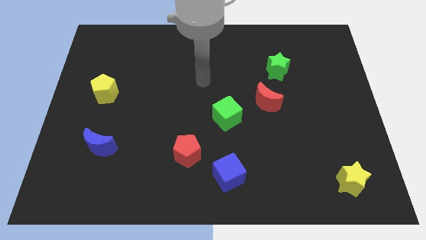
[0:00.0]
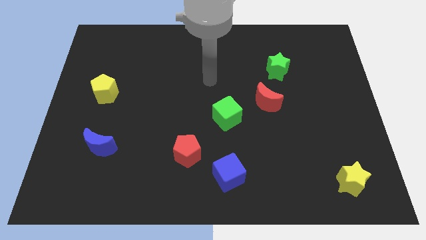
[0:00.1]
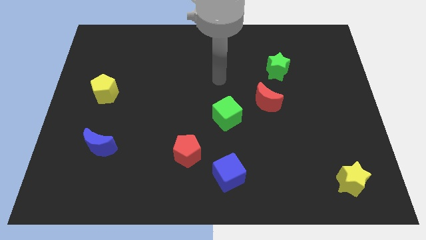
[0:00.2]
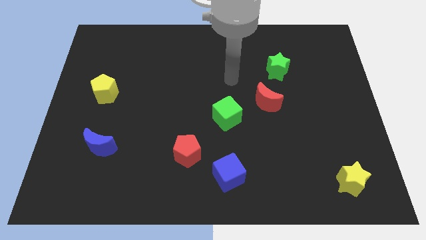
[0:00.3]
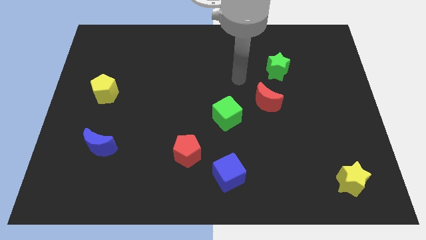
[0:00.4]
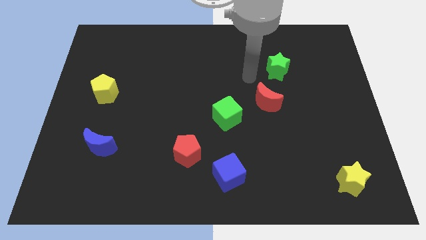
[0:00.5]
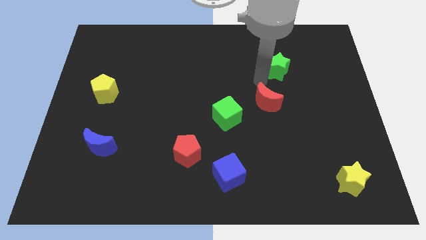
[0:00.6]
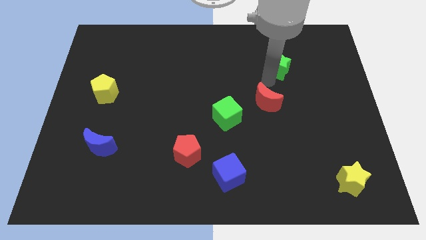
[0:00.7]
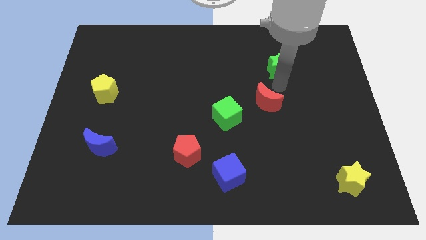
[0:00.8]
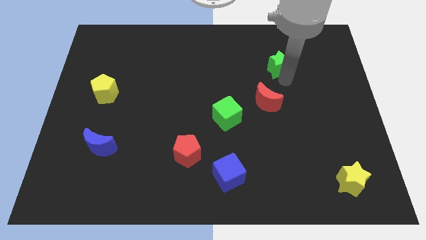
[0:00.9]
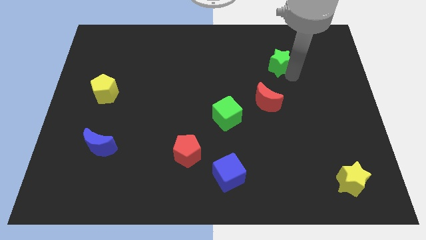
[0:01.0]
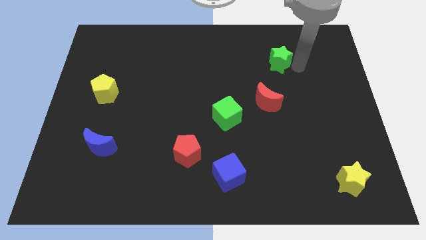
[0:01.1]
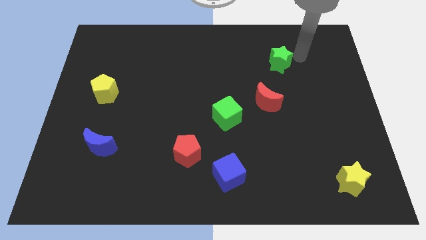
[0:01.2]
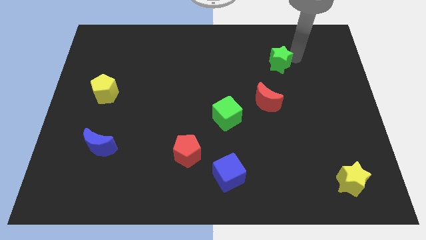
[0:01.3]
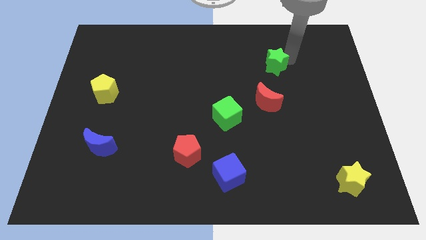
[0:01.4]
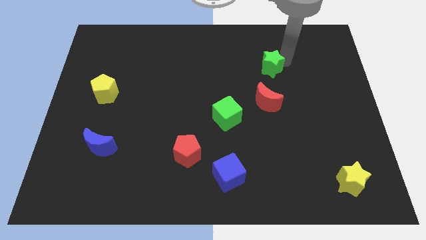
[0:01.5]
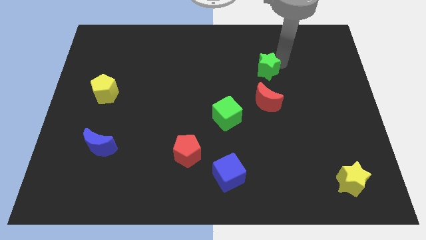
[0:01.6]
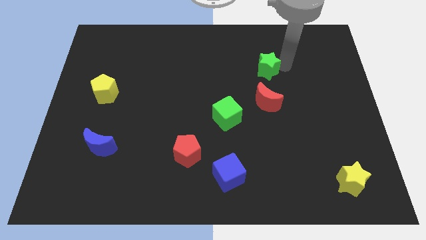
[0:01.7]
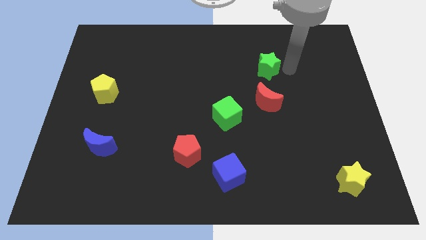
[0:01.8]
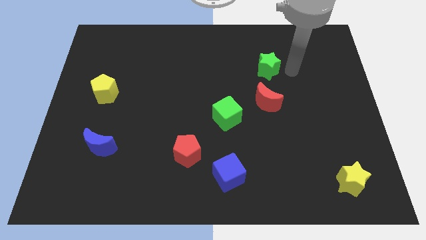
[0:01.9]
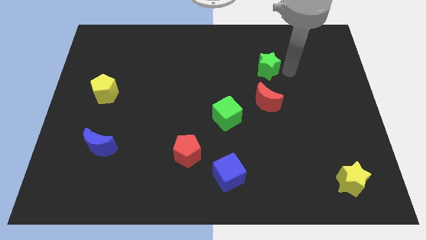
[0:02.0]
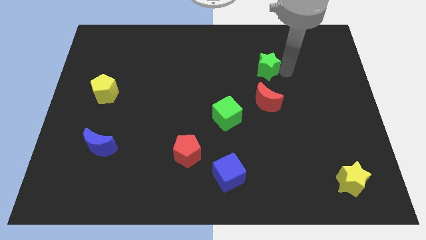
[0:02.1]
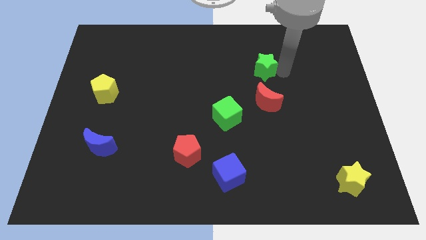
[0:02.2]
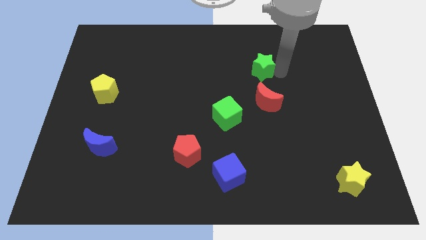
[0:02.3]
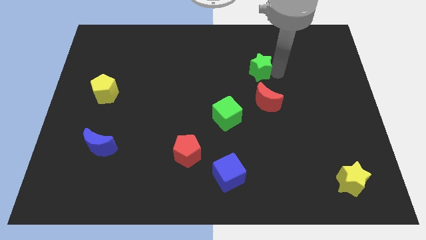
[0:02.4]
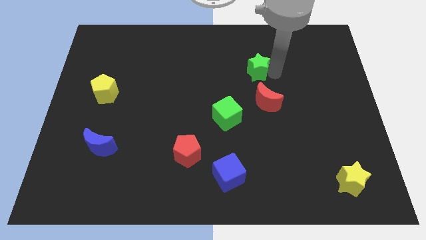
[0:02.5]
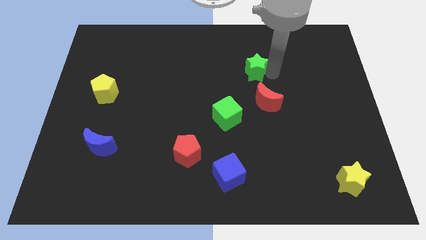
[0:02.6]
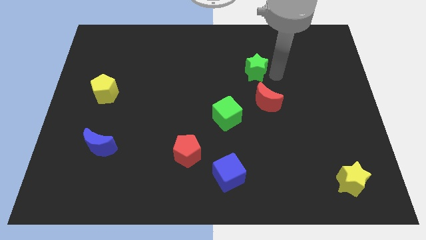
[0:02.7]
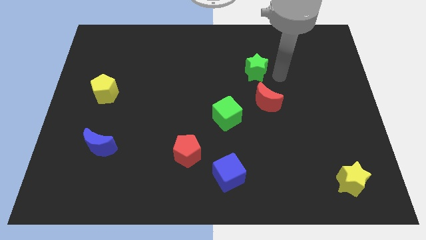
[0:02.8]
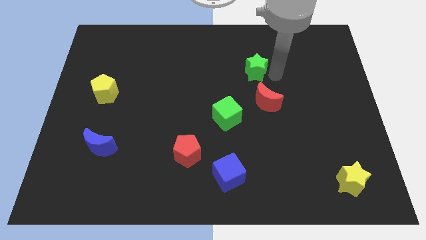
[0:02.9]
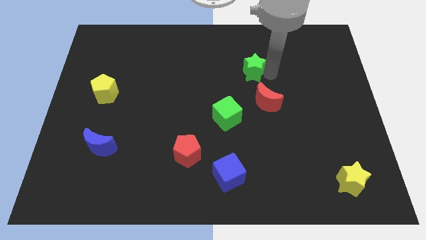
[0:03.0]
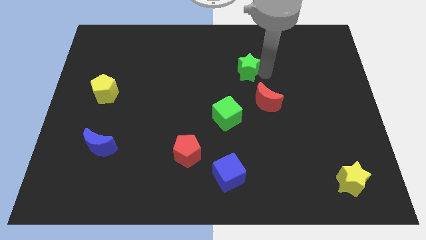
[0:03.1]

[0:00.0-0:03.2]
slide the green star slightly left

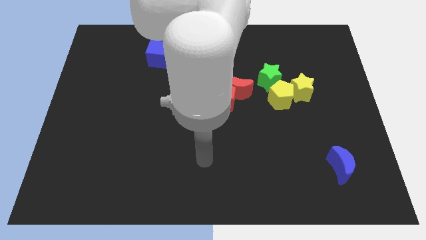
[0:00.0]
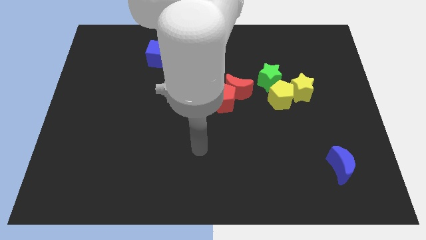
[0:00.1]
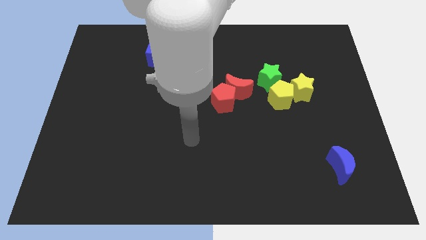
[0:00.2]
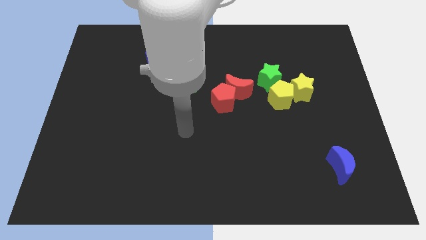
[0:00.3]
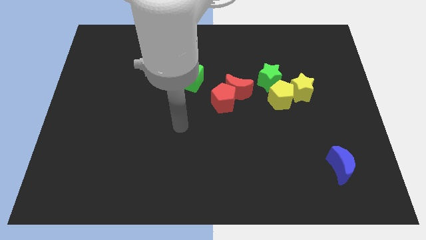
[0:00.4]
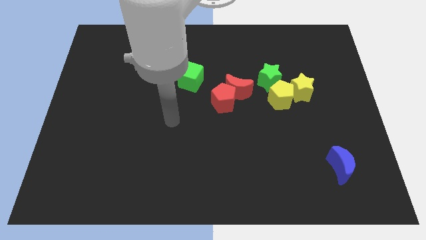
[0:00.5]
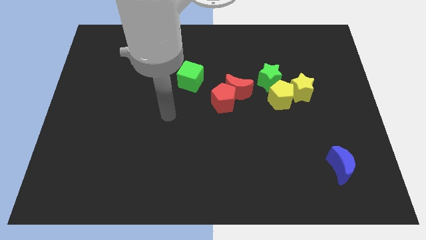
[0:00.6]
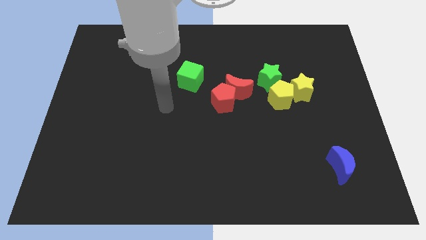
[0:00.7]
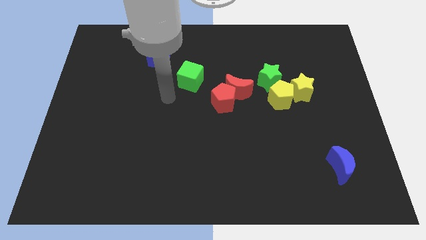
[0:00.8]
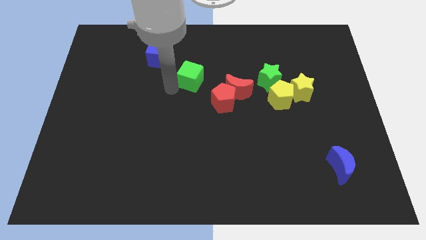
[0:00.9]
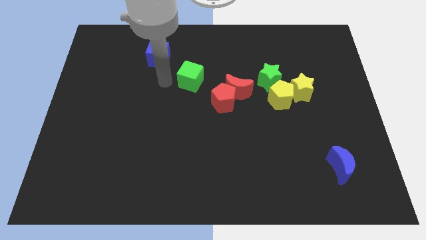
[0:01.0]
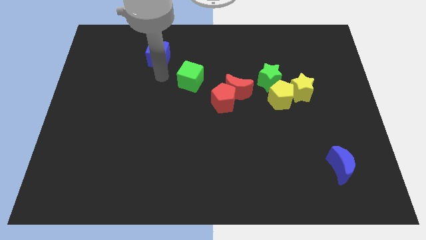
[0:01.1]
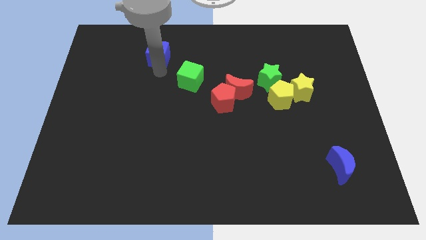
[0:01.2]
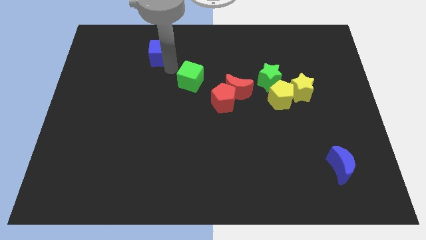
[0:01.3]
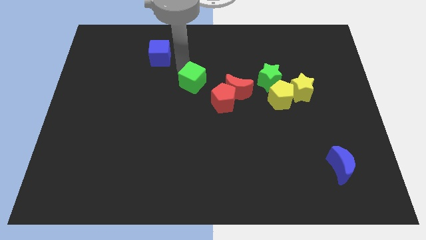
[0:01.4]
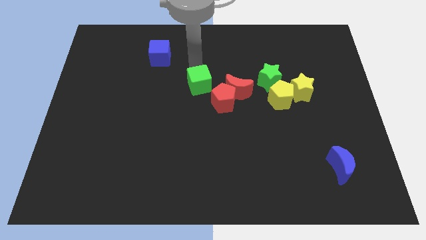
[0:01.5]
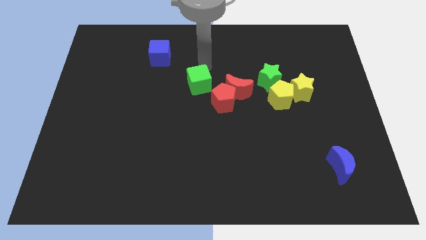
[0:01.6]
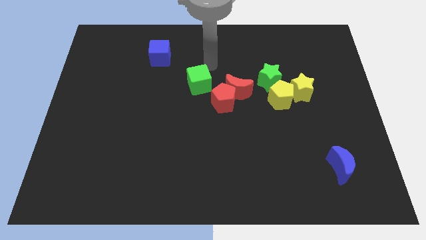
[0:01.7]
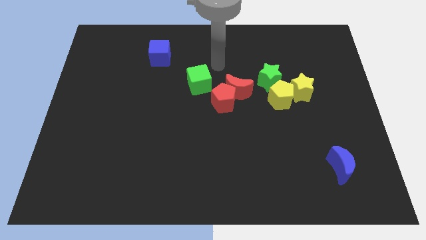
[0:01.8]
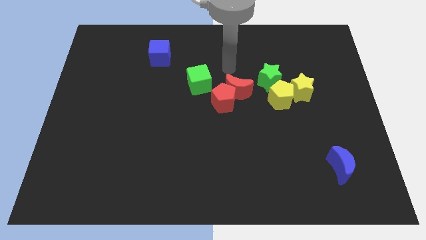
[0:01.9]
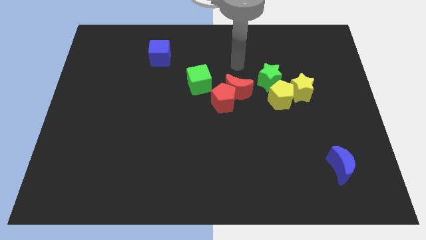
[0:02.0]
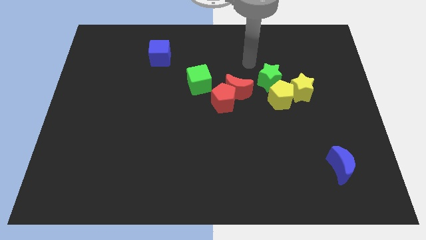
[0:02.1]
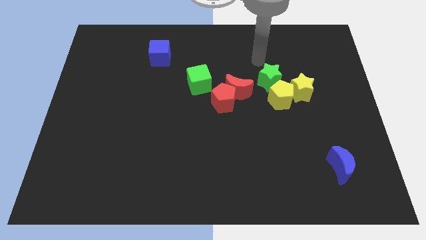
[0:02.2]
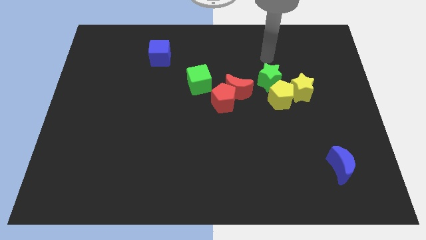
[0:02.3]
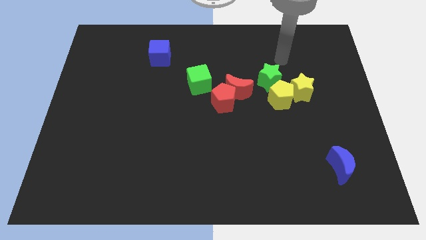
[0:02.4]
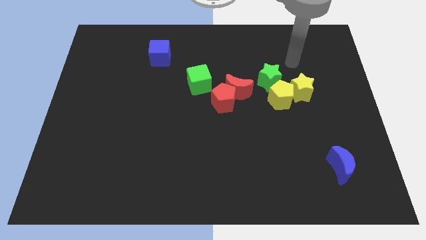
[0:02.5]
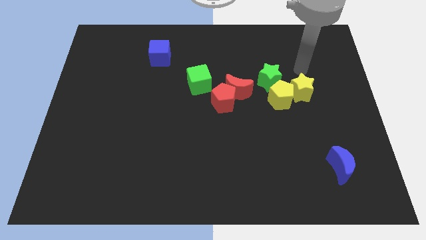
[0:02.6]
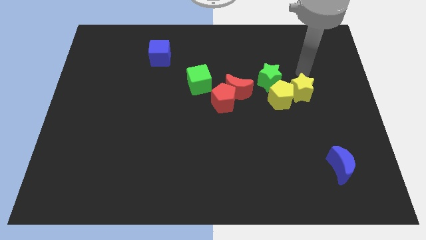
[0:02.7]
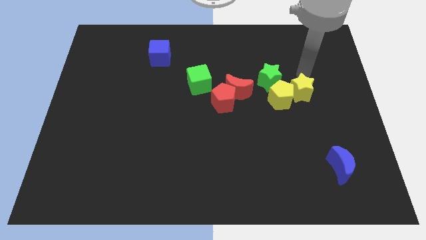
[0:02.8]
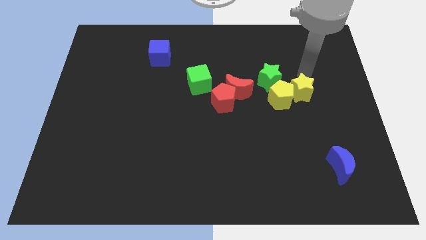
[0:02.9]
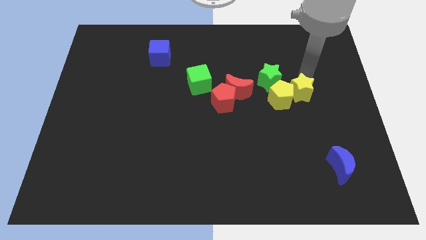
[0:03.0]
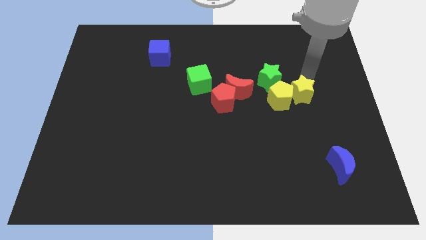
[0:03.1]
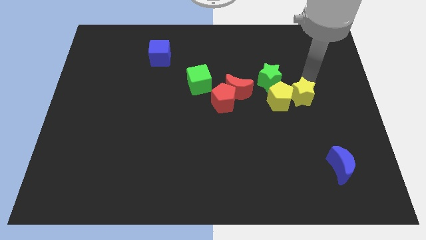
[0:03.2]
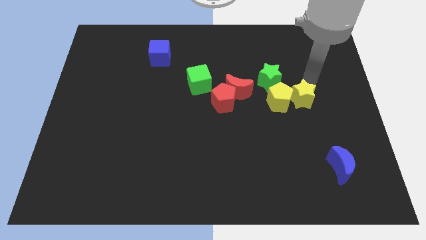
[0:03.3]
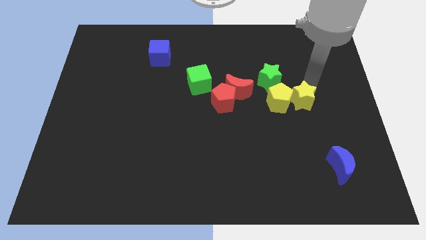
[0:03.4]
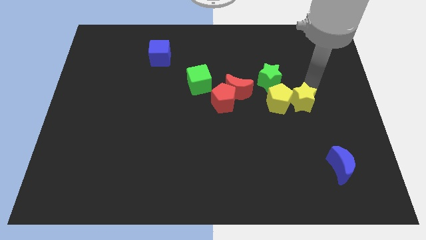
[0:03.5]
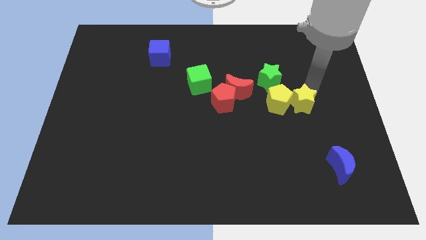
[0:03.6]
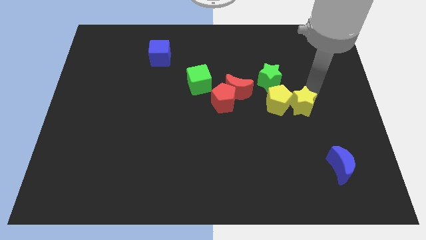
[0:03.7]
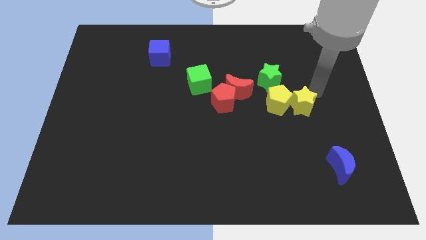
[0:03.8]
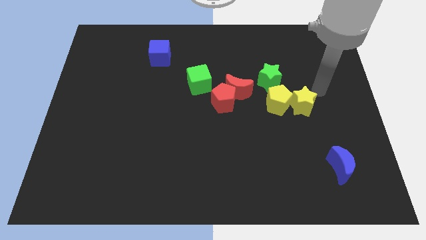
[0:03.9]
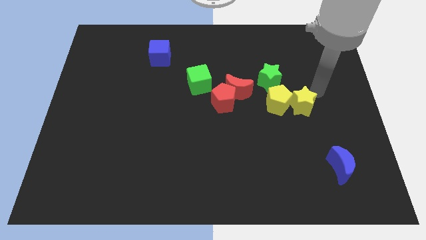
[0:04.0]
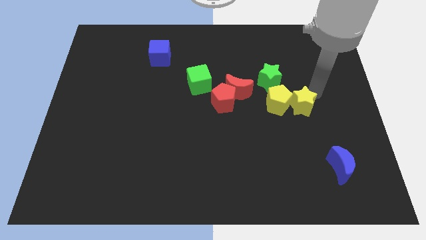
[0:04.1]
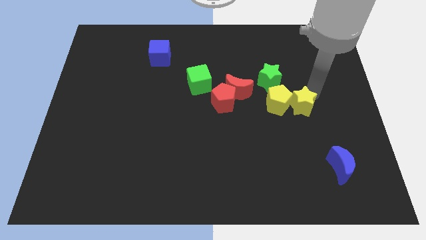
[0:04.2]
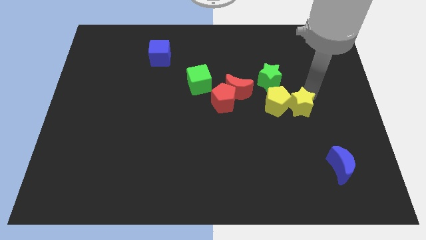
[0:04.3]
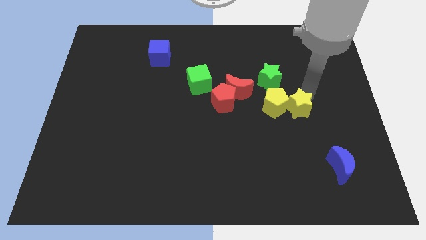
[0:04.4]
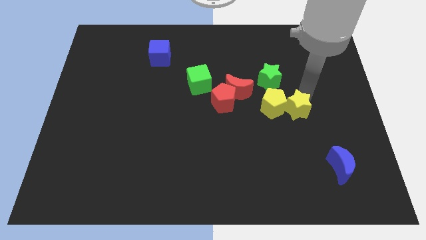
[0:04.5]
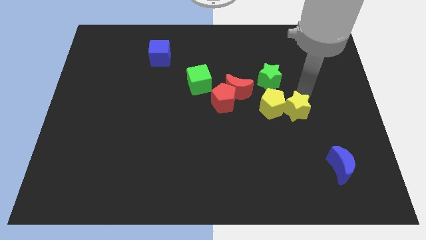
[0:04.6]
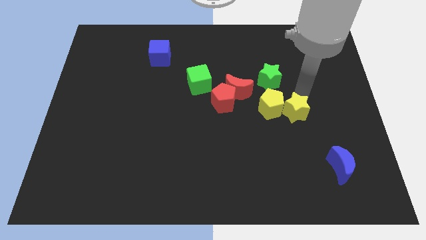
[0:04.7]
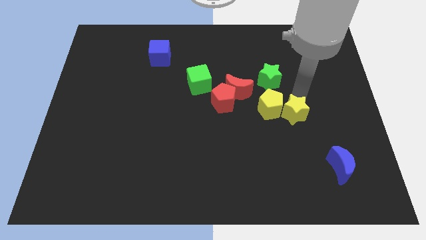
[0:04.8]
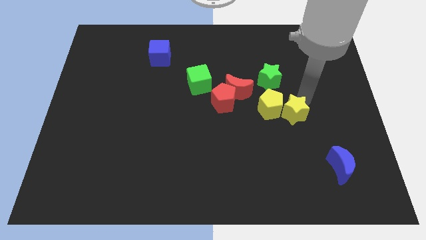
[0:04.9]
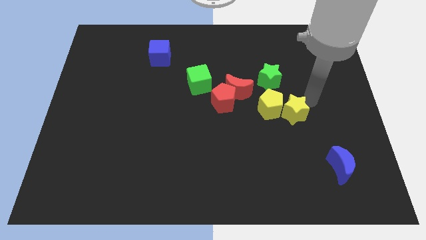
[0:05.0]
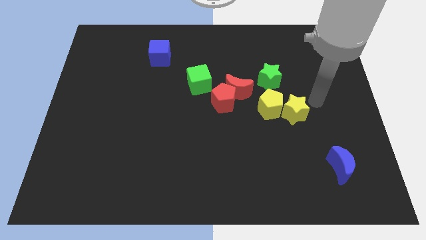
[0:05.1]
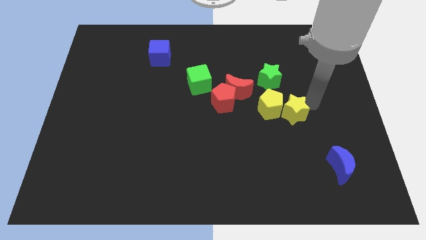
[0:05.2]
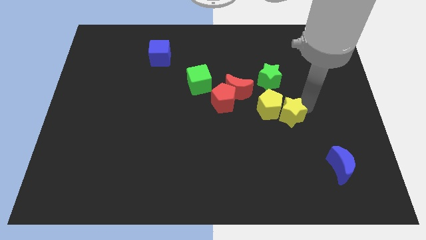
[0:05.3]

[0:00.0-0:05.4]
slightly slide the yellow star down and left diagonally
